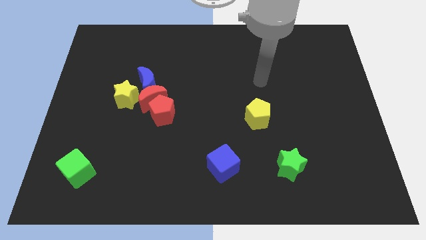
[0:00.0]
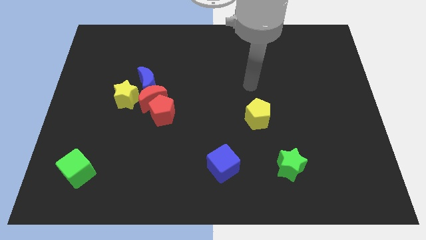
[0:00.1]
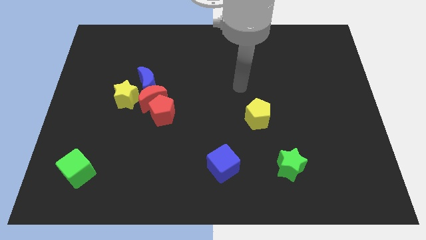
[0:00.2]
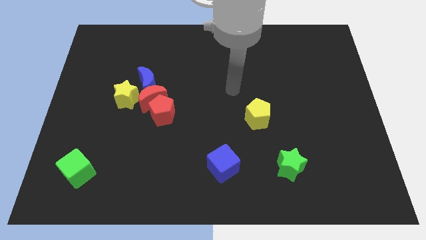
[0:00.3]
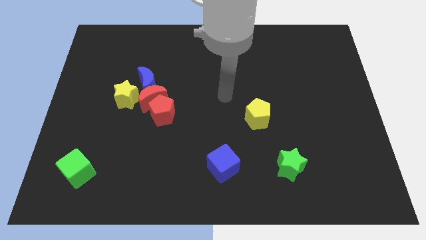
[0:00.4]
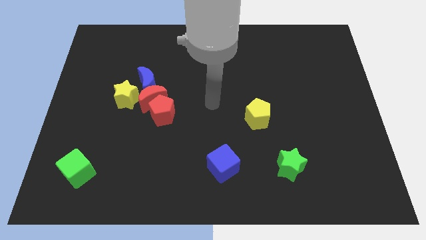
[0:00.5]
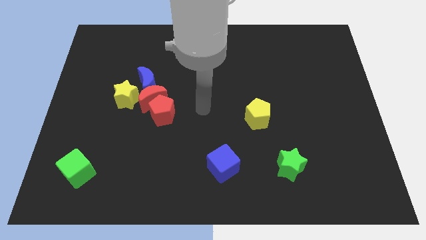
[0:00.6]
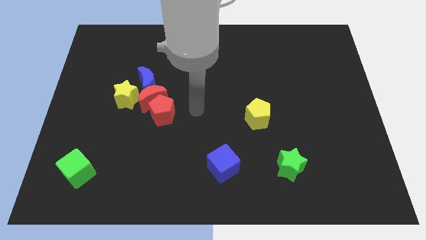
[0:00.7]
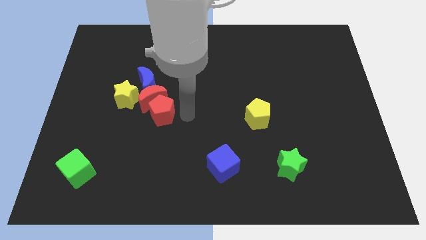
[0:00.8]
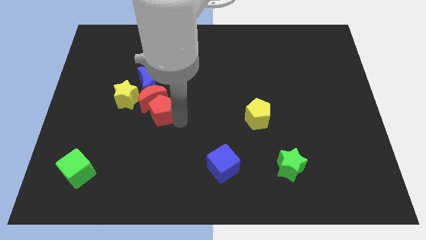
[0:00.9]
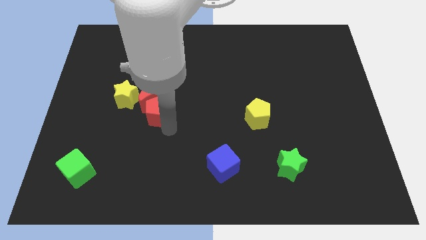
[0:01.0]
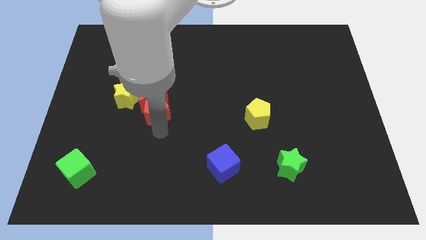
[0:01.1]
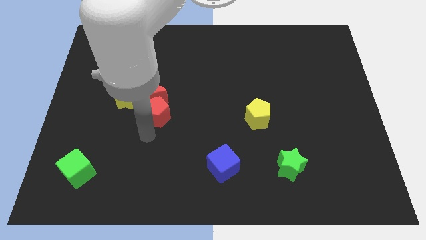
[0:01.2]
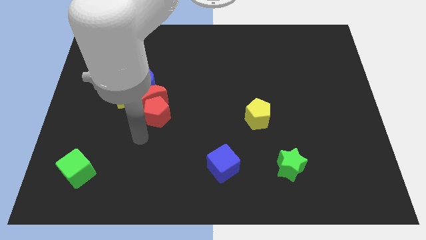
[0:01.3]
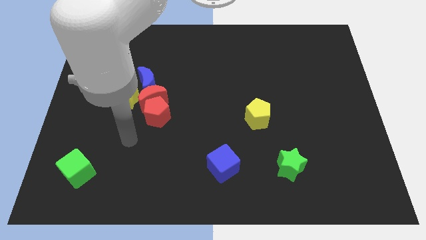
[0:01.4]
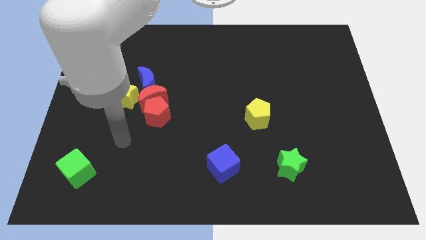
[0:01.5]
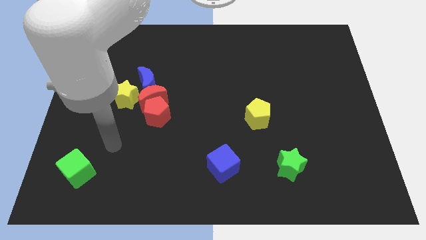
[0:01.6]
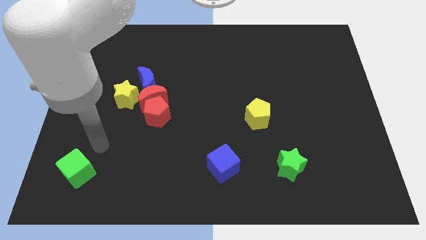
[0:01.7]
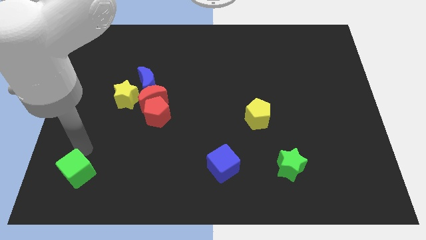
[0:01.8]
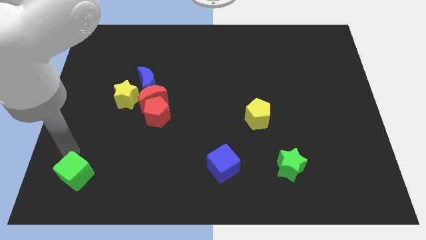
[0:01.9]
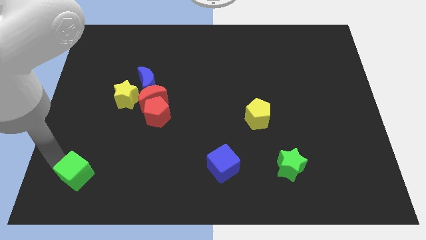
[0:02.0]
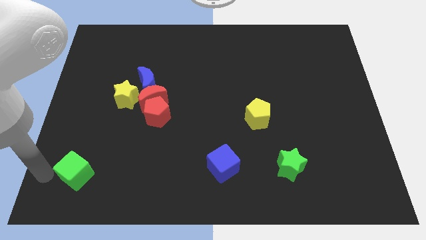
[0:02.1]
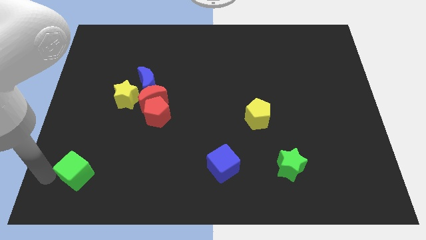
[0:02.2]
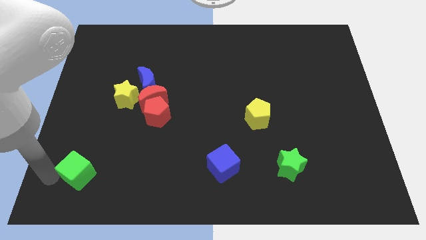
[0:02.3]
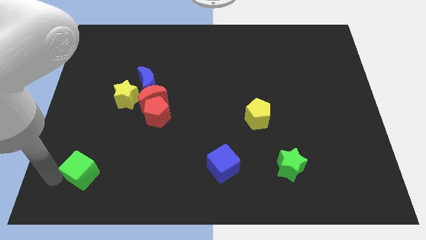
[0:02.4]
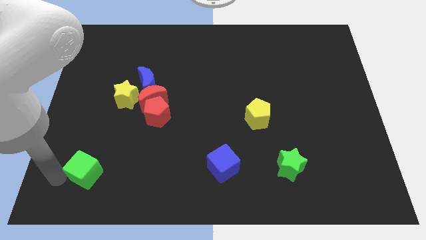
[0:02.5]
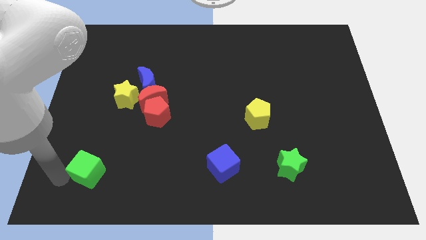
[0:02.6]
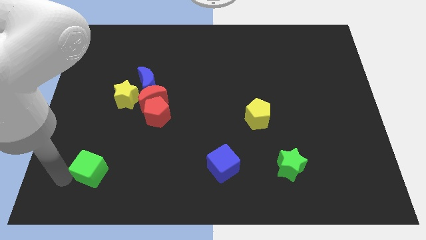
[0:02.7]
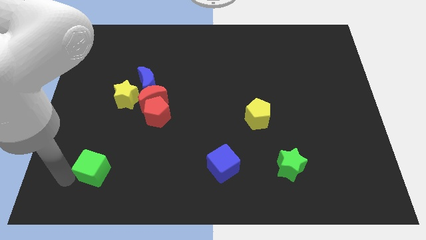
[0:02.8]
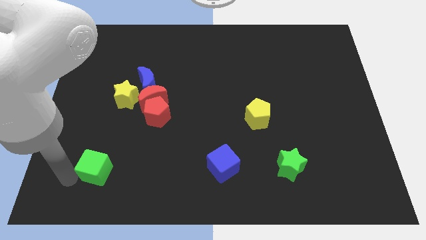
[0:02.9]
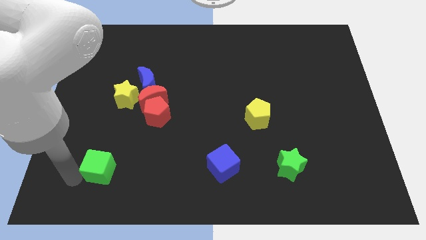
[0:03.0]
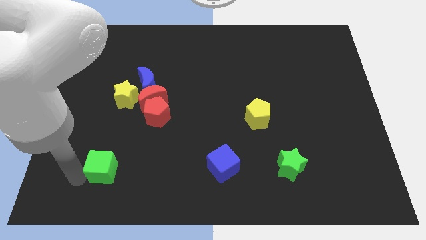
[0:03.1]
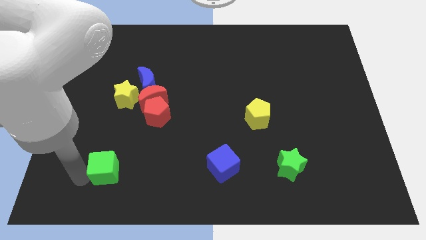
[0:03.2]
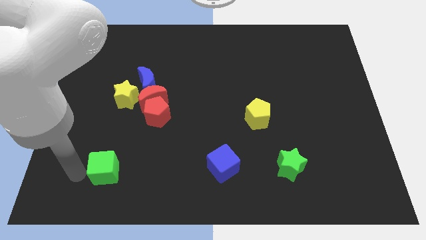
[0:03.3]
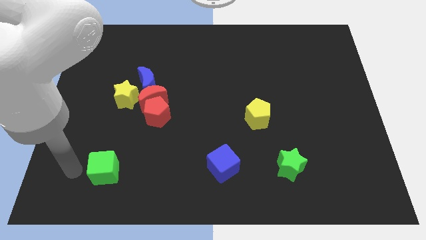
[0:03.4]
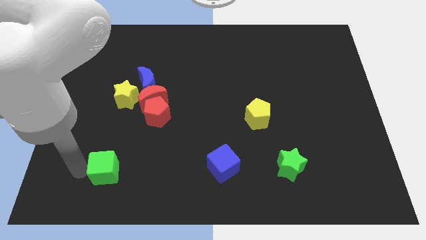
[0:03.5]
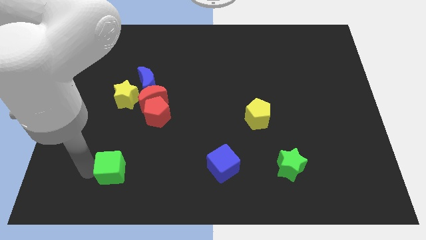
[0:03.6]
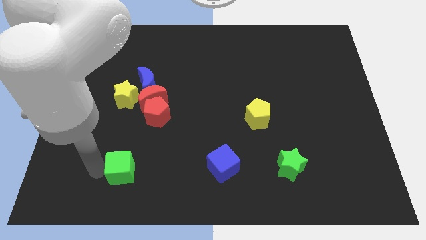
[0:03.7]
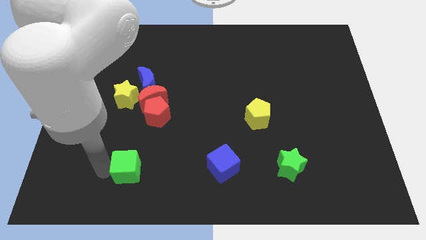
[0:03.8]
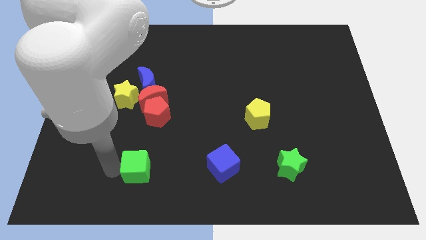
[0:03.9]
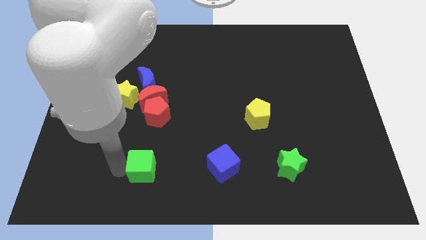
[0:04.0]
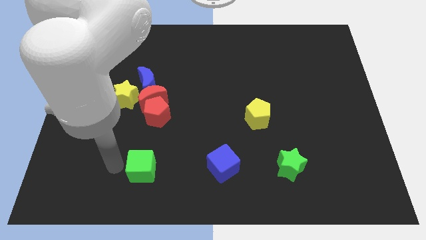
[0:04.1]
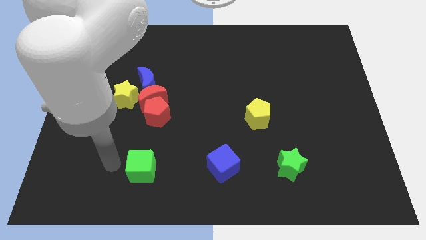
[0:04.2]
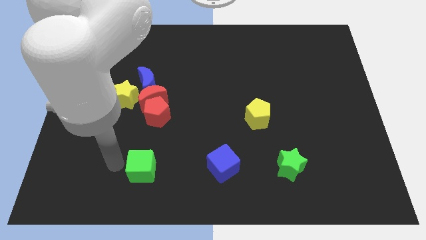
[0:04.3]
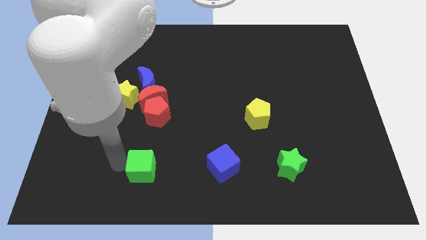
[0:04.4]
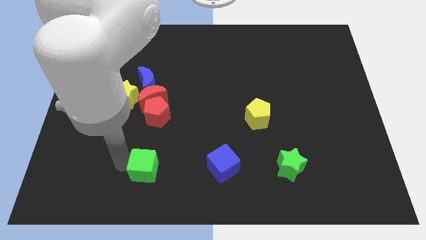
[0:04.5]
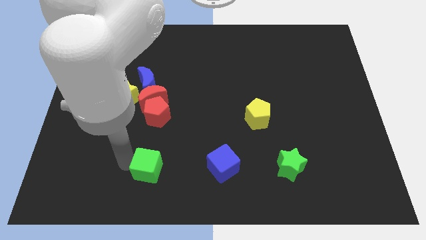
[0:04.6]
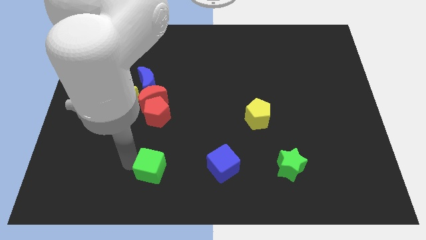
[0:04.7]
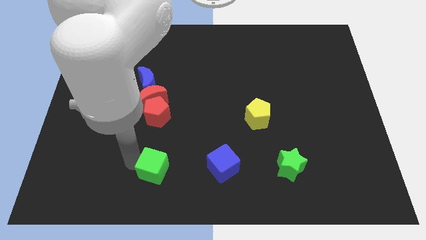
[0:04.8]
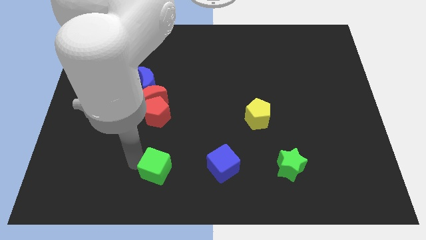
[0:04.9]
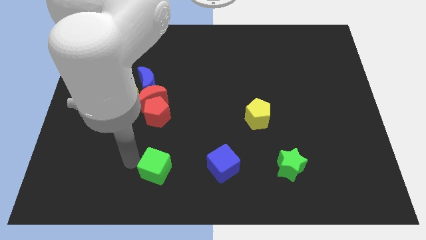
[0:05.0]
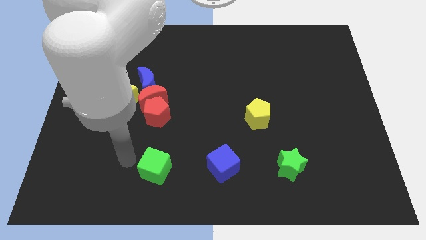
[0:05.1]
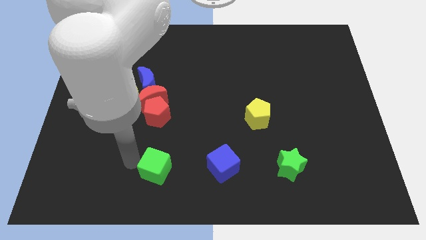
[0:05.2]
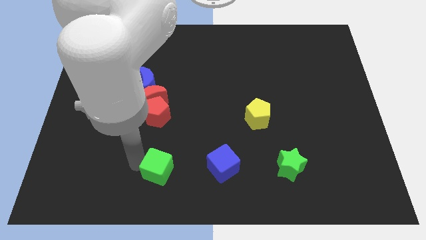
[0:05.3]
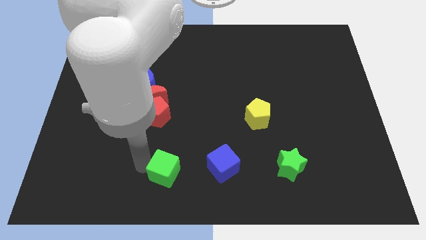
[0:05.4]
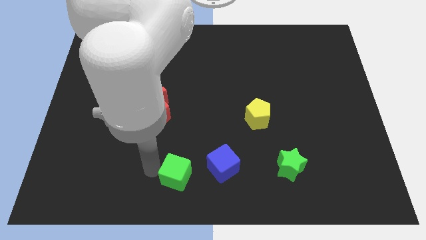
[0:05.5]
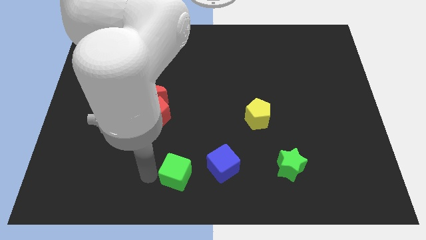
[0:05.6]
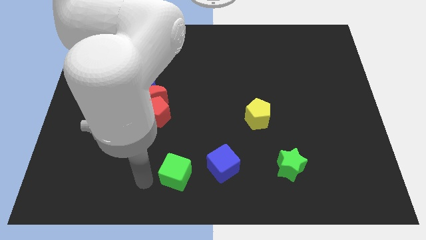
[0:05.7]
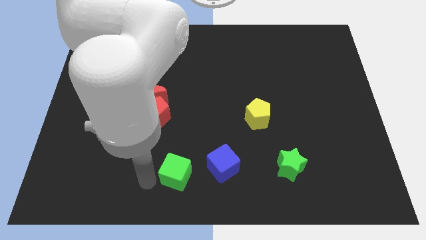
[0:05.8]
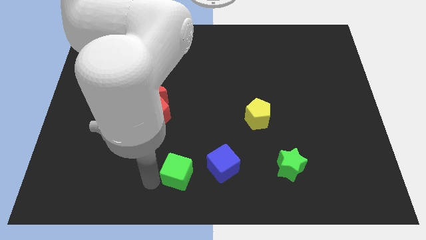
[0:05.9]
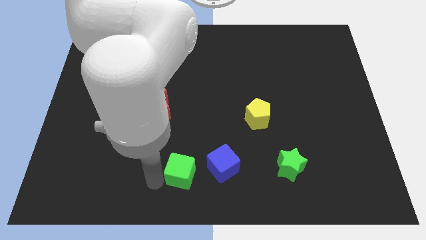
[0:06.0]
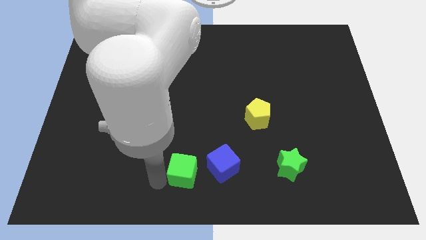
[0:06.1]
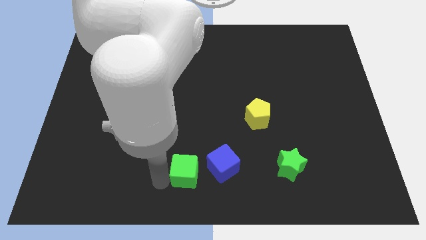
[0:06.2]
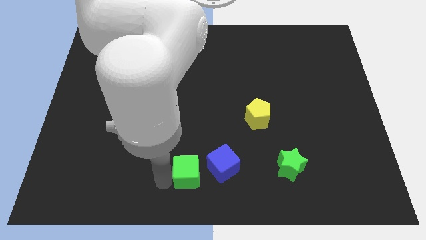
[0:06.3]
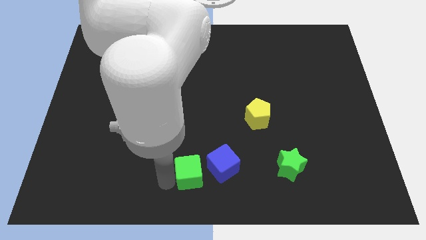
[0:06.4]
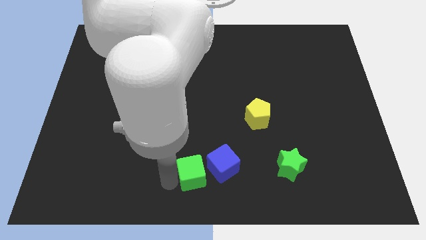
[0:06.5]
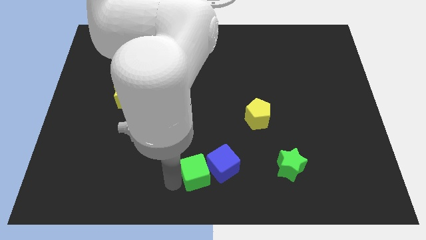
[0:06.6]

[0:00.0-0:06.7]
push the green cube towards the blue cube

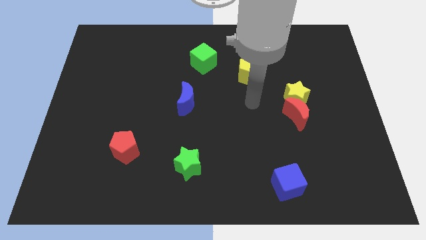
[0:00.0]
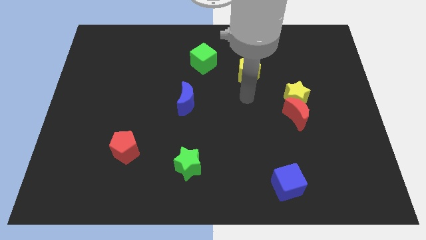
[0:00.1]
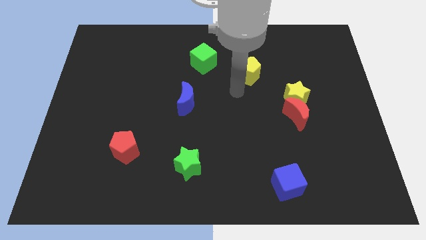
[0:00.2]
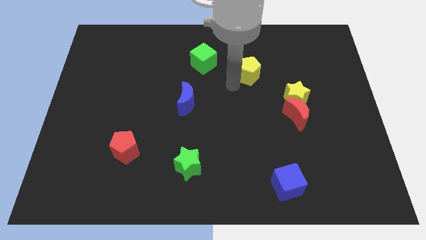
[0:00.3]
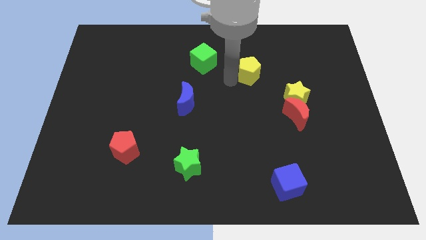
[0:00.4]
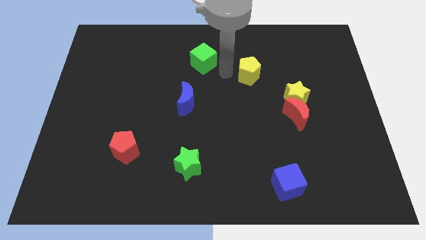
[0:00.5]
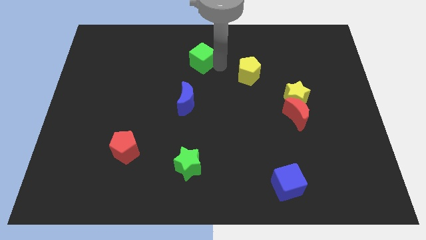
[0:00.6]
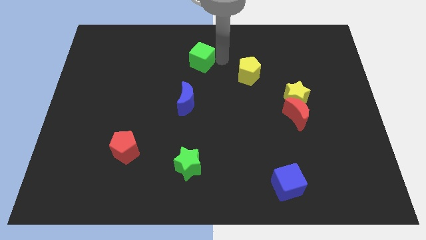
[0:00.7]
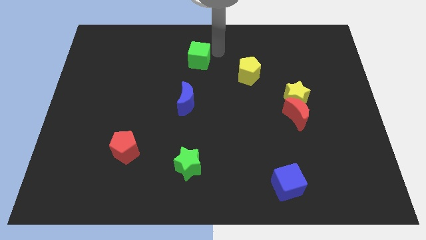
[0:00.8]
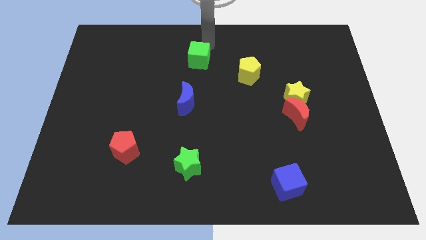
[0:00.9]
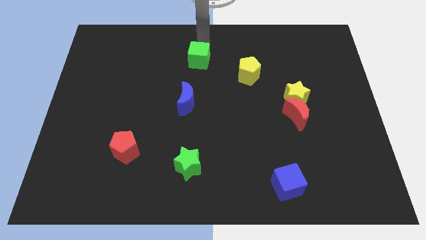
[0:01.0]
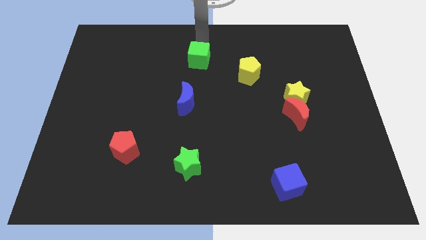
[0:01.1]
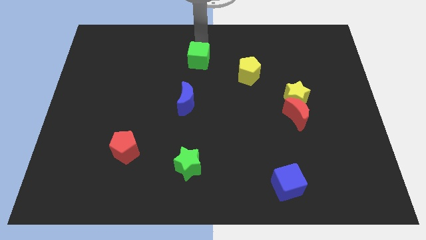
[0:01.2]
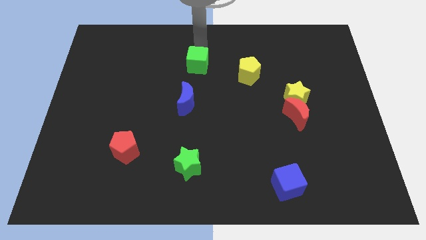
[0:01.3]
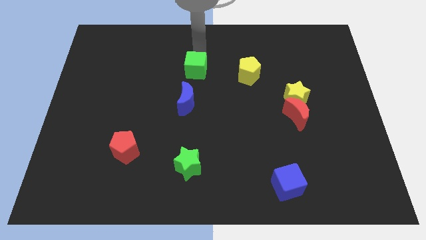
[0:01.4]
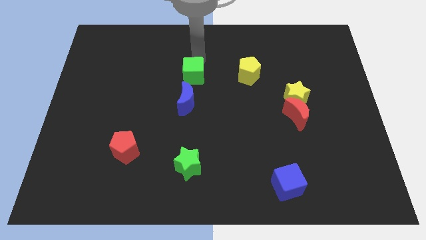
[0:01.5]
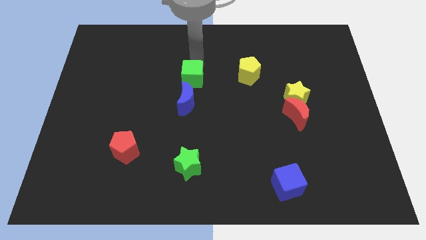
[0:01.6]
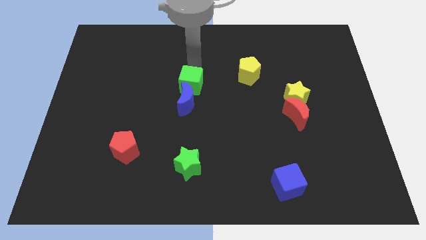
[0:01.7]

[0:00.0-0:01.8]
push the green cube next to the blue moon
